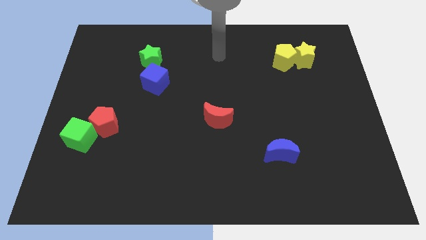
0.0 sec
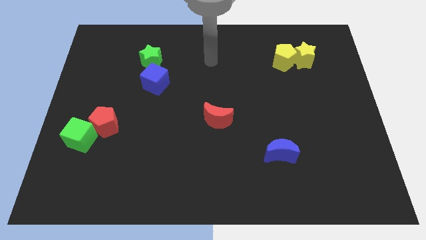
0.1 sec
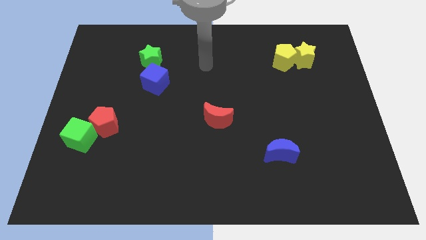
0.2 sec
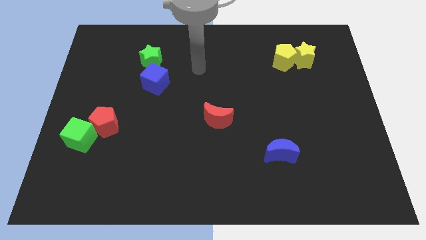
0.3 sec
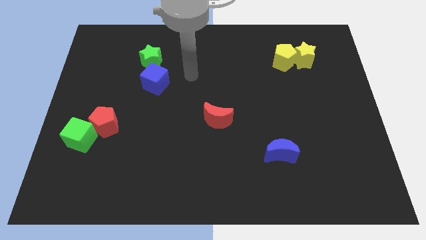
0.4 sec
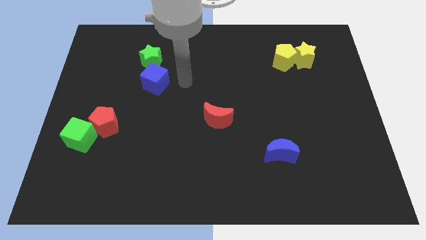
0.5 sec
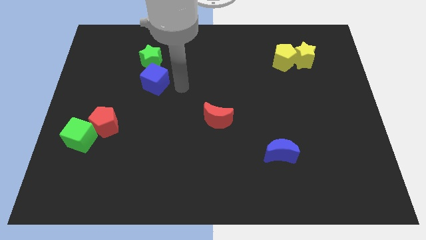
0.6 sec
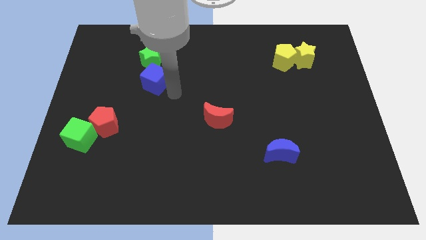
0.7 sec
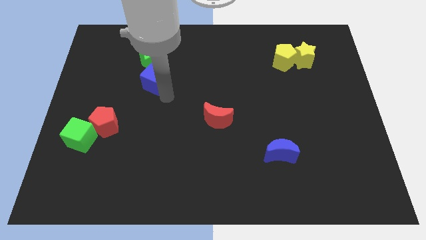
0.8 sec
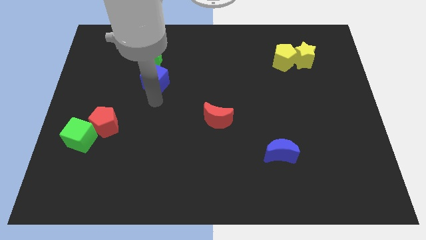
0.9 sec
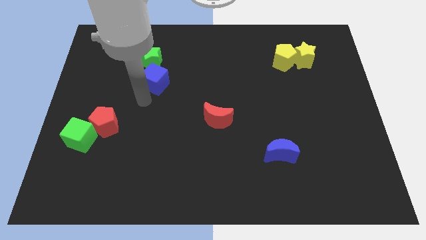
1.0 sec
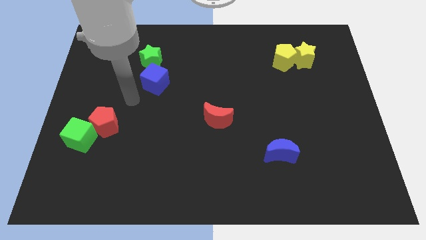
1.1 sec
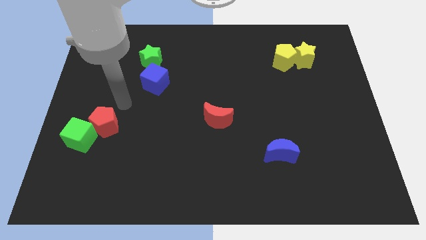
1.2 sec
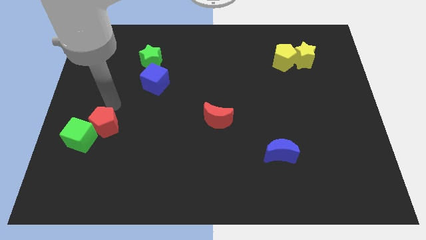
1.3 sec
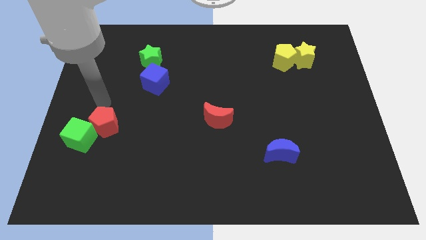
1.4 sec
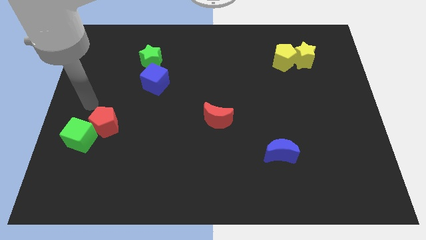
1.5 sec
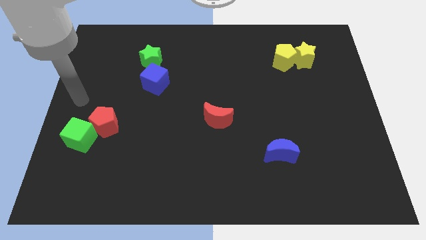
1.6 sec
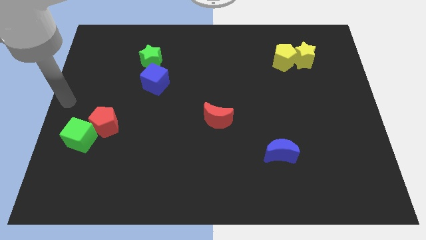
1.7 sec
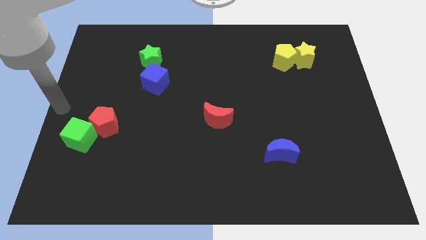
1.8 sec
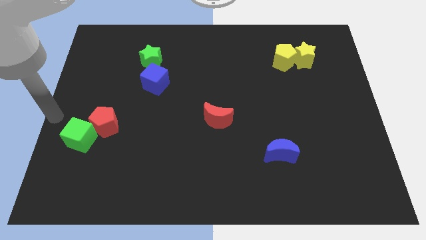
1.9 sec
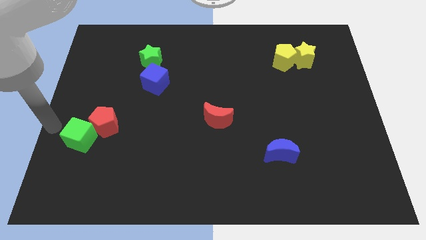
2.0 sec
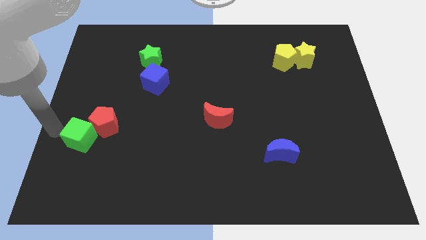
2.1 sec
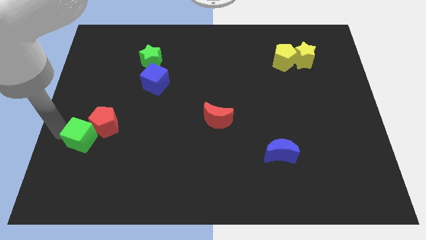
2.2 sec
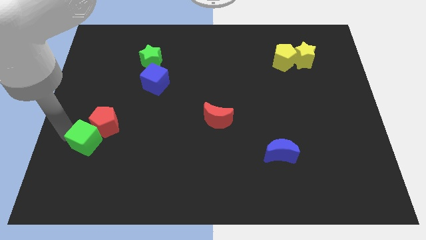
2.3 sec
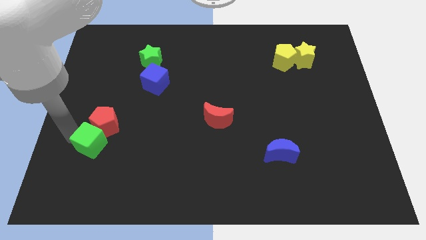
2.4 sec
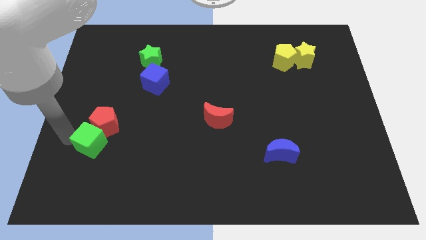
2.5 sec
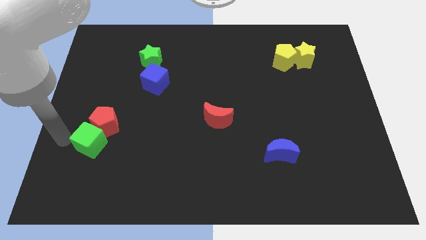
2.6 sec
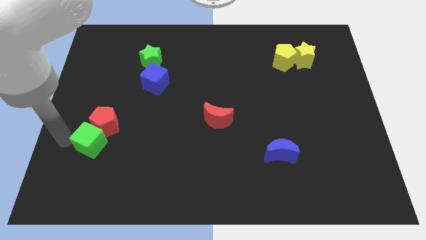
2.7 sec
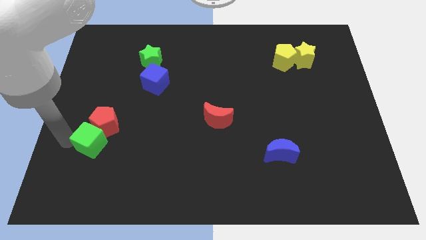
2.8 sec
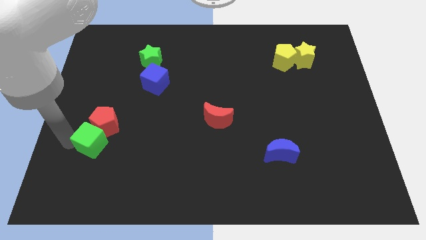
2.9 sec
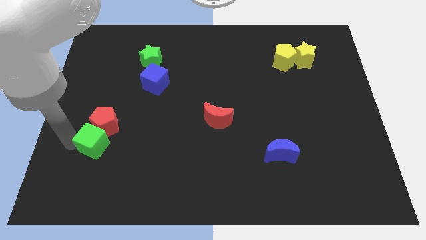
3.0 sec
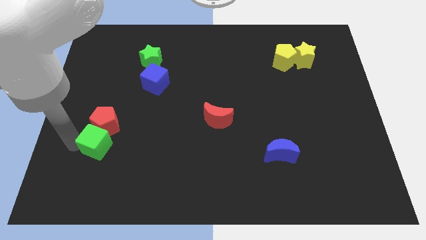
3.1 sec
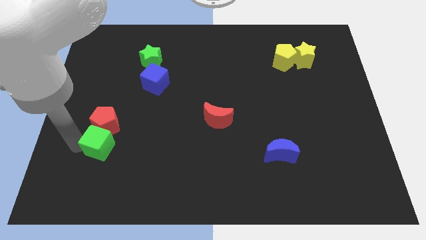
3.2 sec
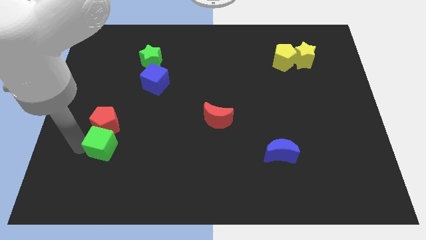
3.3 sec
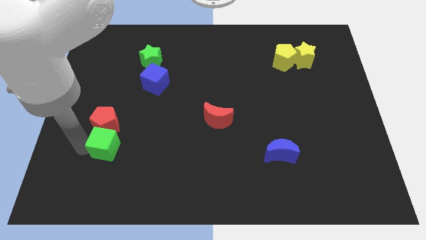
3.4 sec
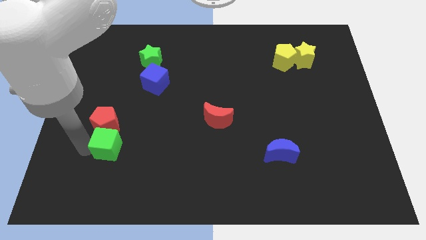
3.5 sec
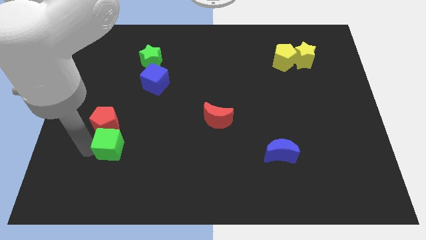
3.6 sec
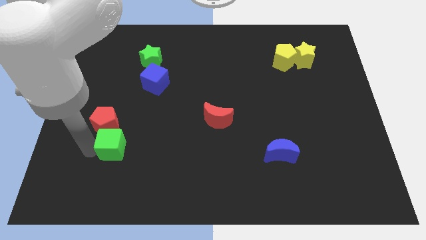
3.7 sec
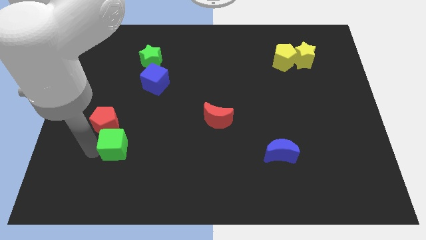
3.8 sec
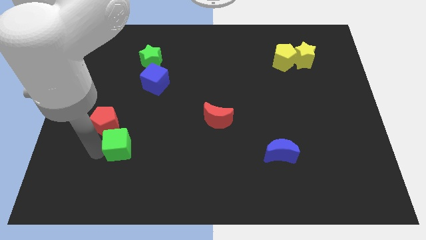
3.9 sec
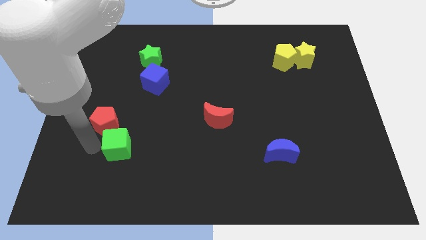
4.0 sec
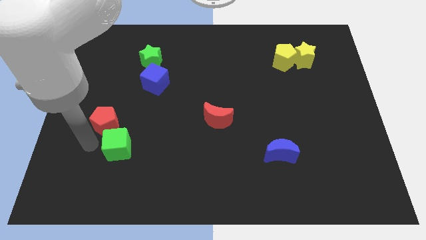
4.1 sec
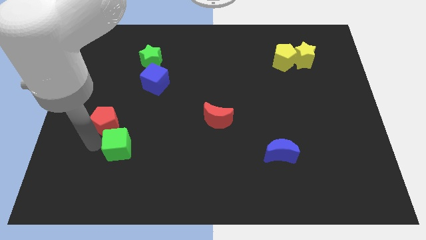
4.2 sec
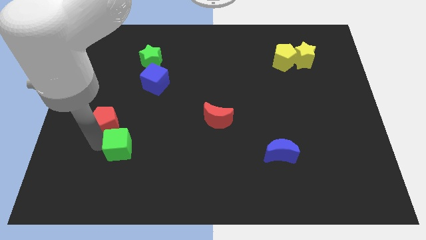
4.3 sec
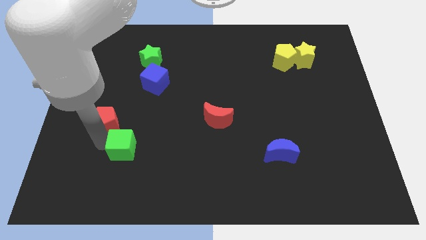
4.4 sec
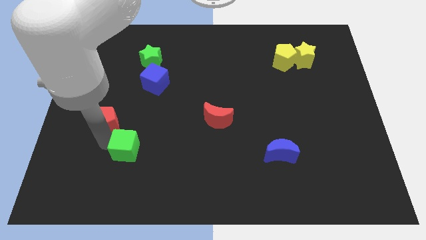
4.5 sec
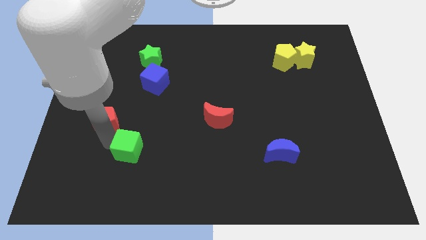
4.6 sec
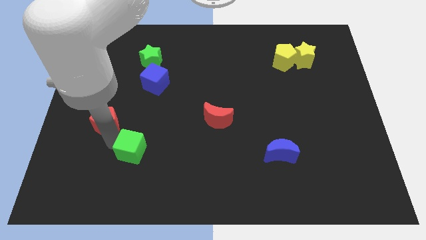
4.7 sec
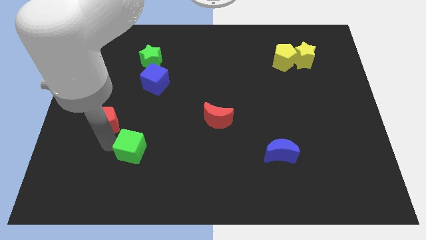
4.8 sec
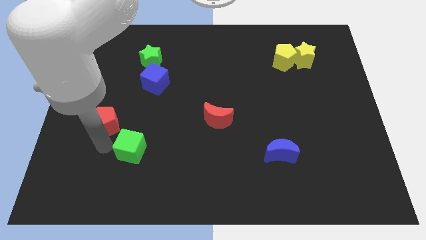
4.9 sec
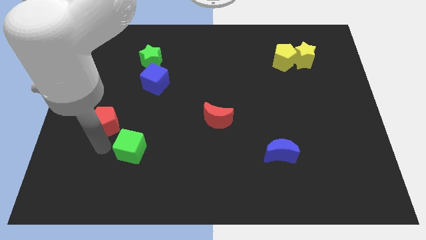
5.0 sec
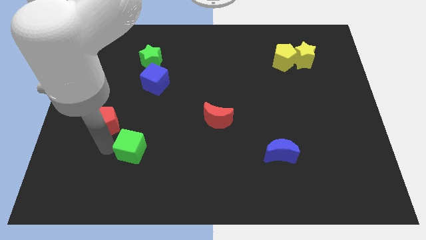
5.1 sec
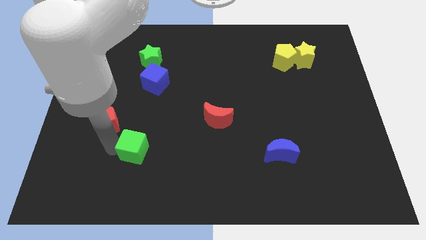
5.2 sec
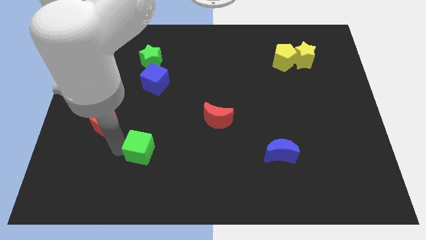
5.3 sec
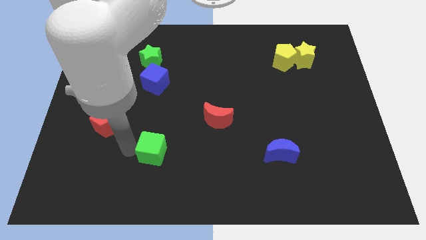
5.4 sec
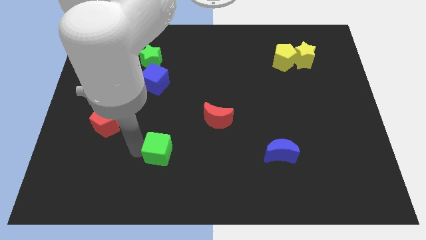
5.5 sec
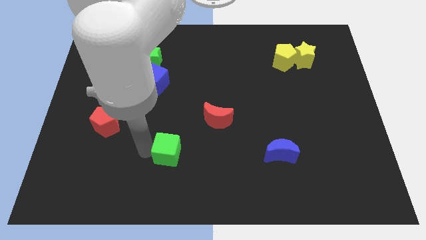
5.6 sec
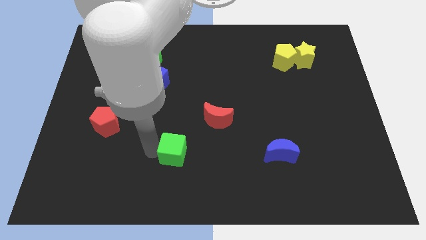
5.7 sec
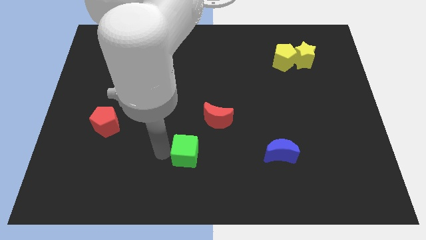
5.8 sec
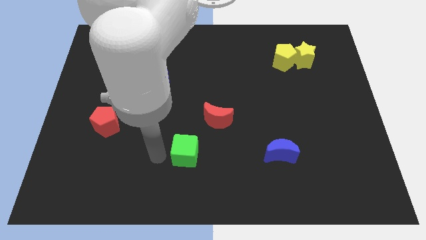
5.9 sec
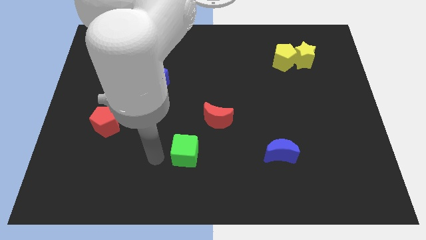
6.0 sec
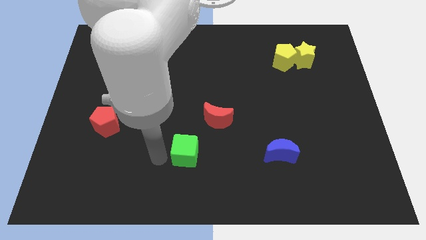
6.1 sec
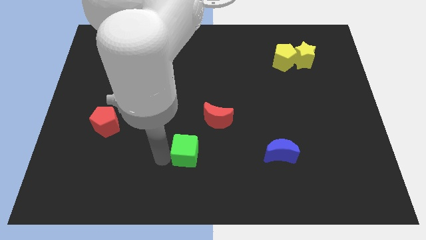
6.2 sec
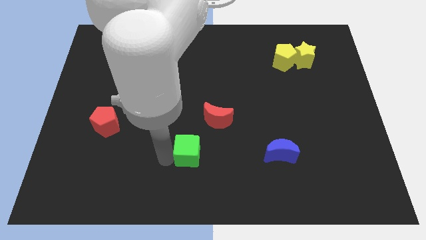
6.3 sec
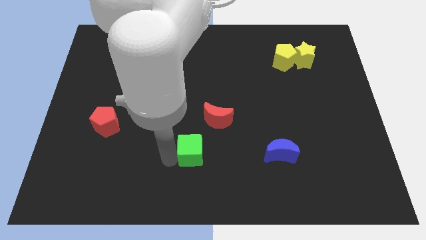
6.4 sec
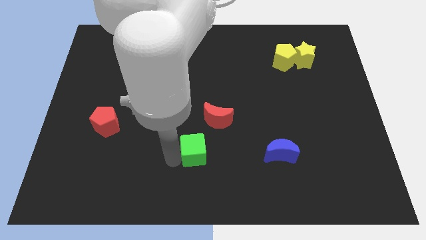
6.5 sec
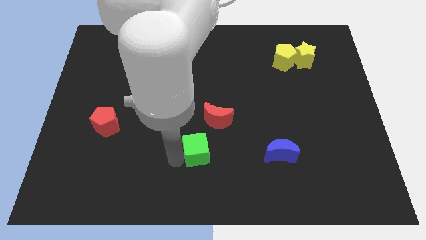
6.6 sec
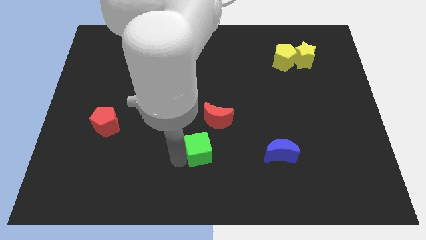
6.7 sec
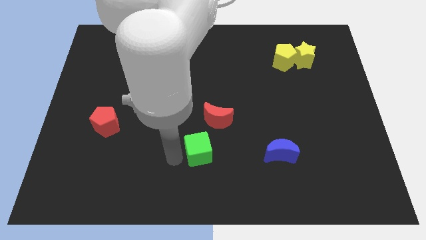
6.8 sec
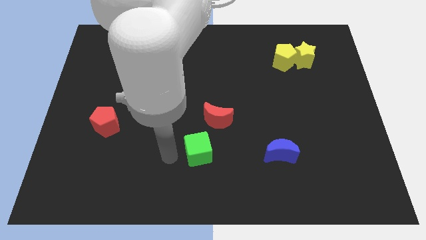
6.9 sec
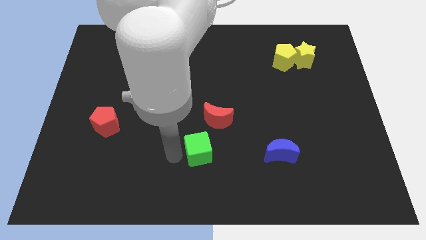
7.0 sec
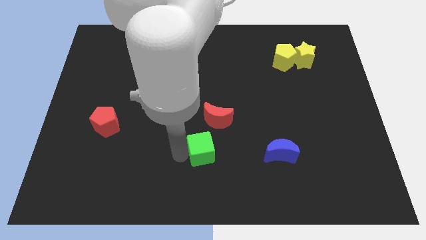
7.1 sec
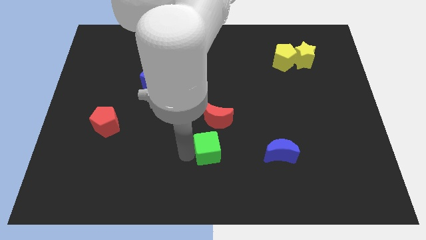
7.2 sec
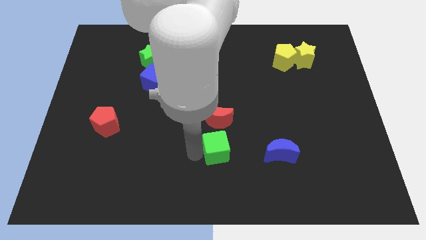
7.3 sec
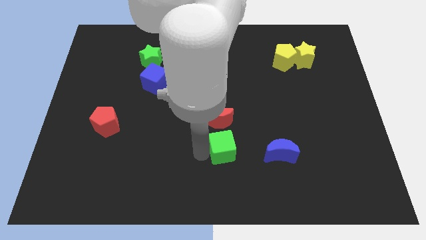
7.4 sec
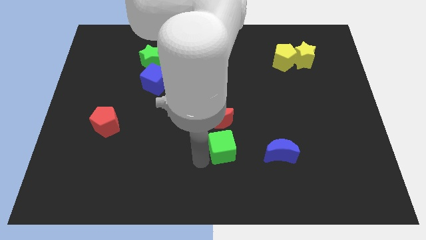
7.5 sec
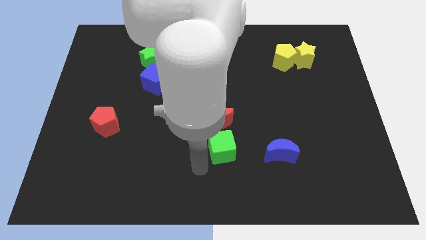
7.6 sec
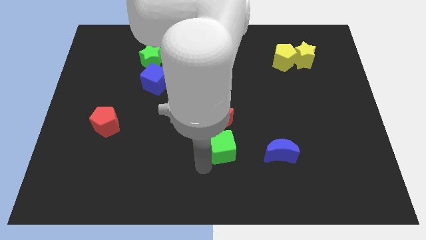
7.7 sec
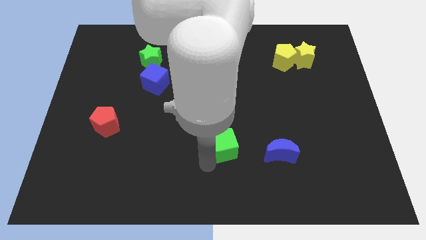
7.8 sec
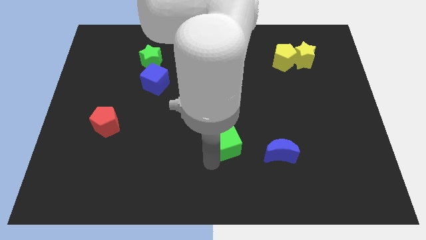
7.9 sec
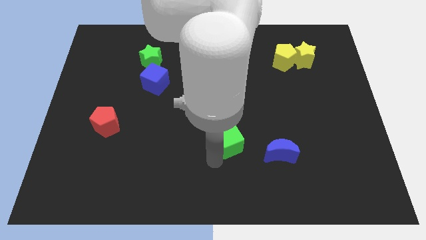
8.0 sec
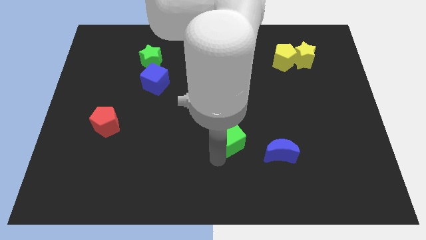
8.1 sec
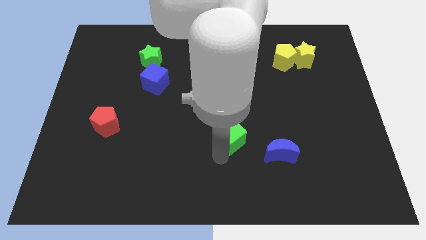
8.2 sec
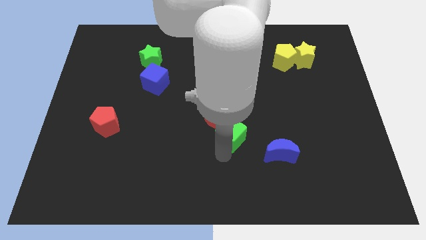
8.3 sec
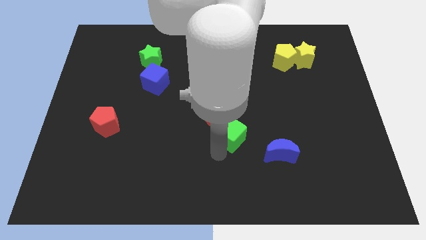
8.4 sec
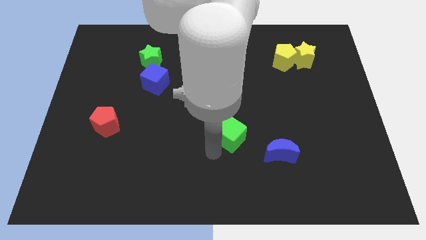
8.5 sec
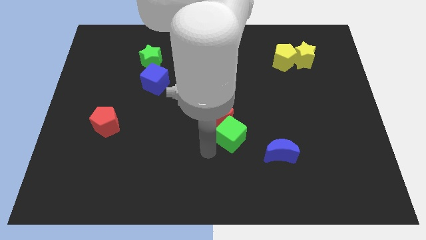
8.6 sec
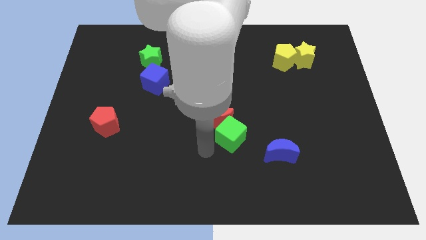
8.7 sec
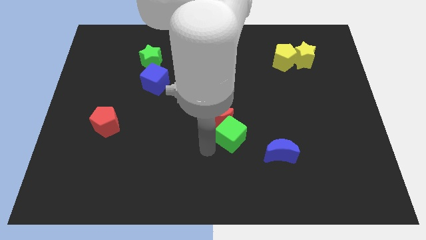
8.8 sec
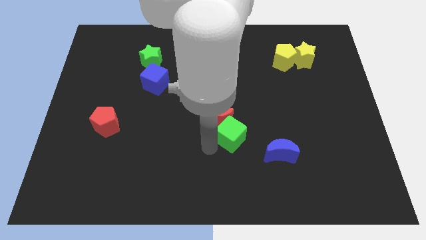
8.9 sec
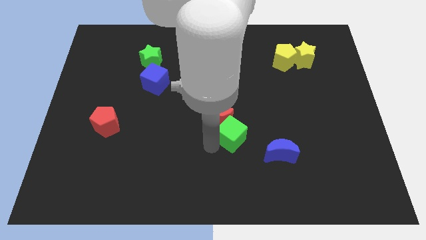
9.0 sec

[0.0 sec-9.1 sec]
slide the green cube right of the red moon
